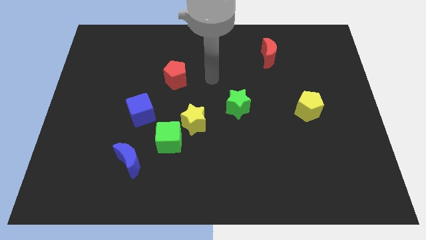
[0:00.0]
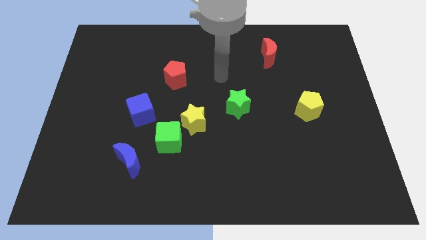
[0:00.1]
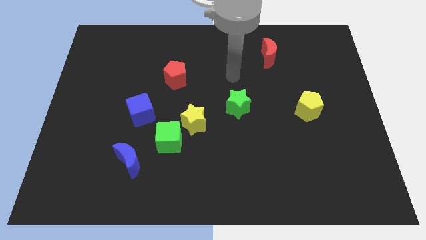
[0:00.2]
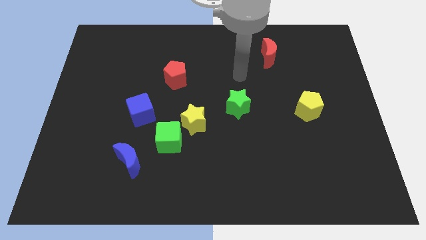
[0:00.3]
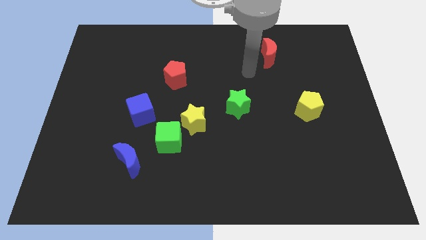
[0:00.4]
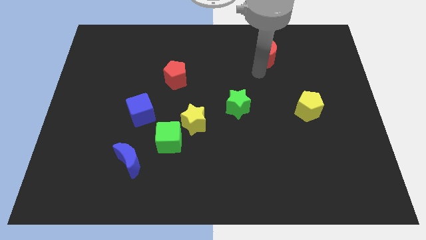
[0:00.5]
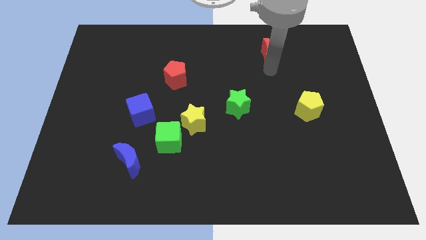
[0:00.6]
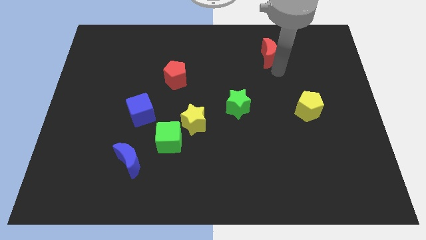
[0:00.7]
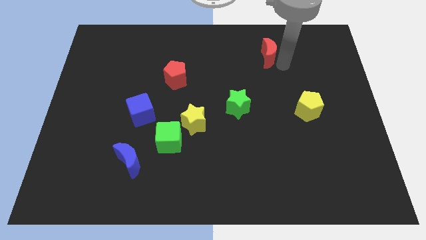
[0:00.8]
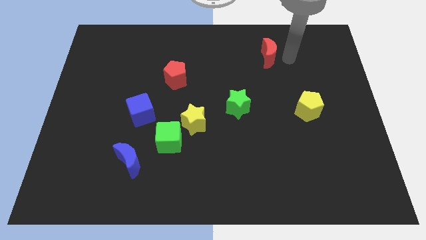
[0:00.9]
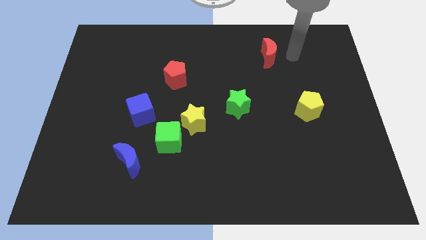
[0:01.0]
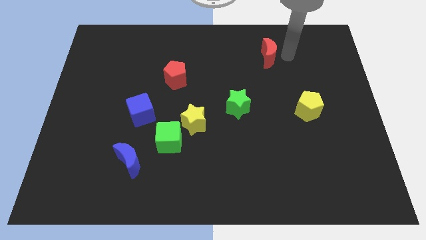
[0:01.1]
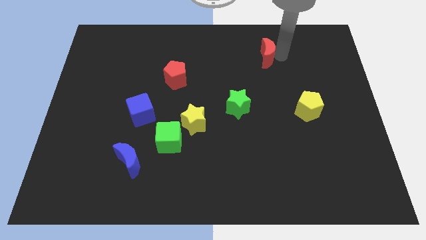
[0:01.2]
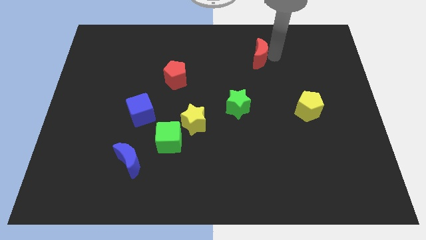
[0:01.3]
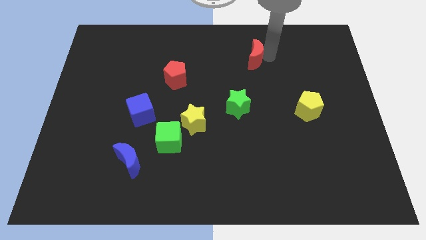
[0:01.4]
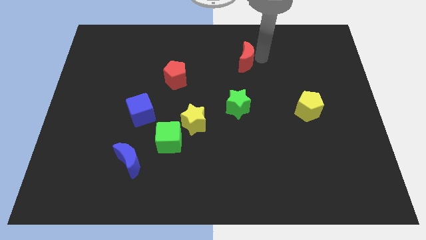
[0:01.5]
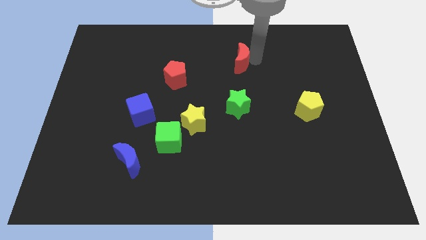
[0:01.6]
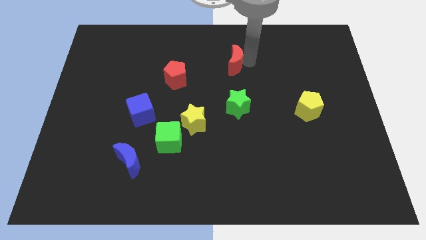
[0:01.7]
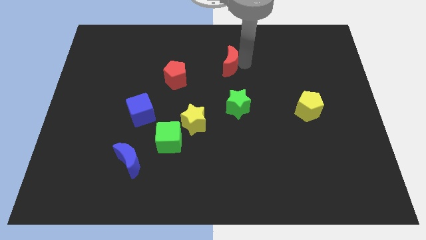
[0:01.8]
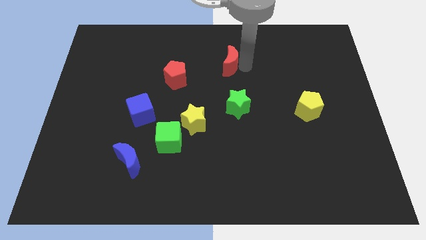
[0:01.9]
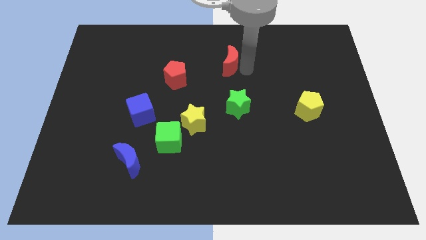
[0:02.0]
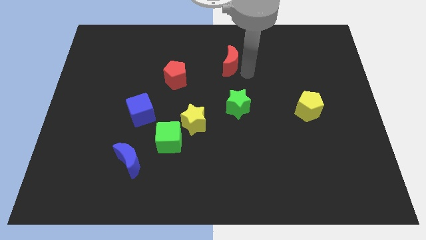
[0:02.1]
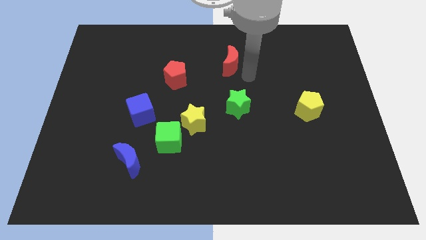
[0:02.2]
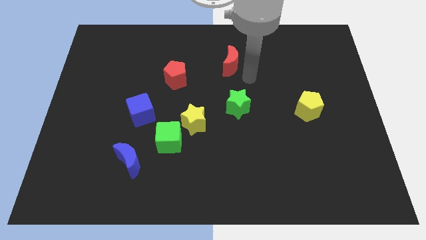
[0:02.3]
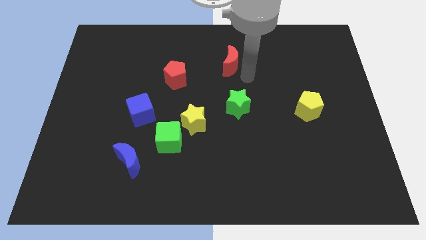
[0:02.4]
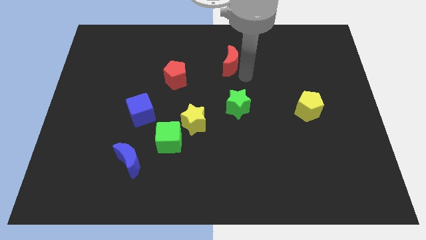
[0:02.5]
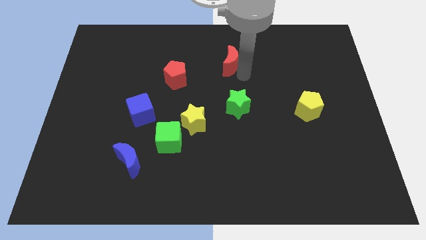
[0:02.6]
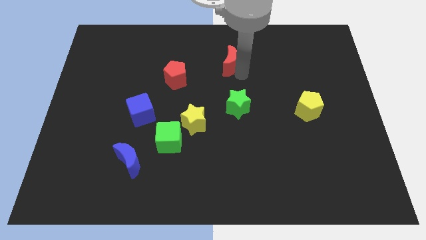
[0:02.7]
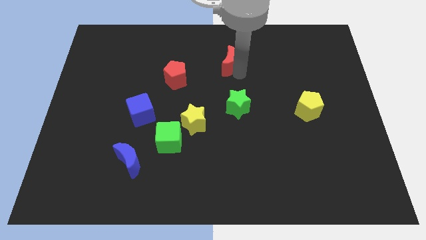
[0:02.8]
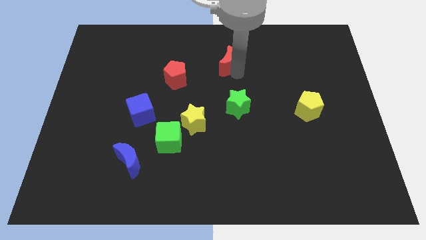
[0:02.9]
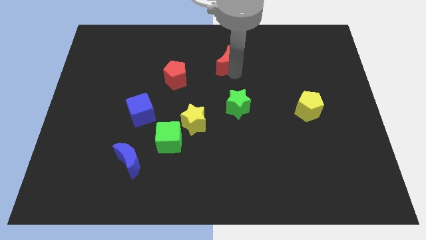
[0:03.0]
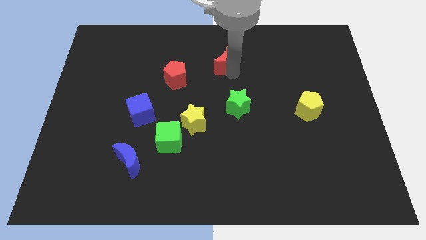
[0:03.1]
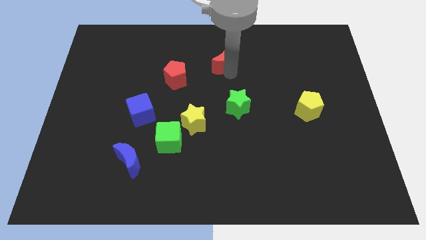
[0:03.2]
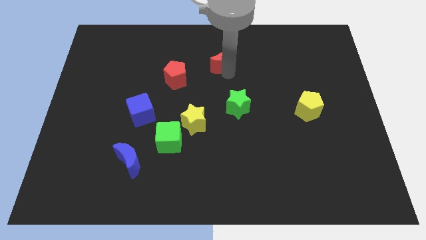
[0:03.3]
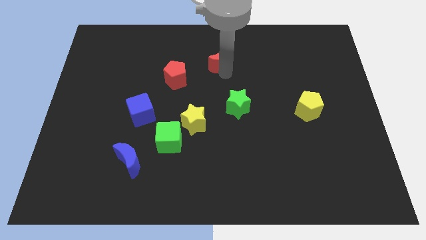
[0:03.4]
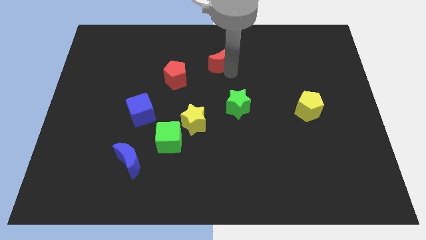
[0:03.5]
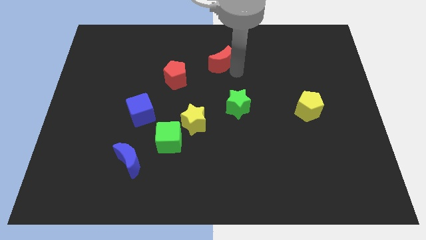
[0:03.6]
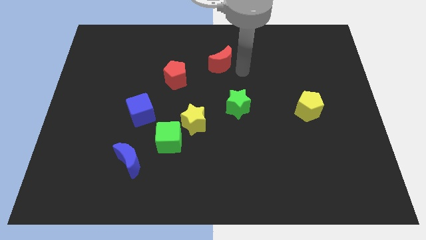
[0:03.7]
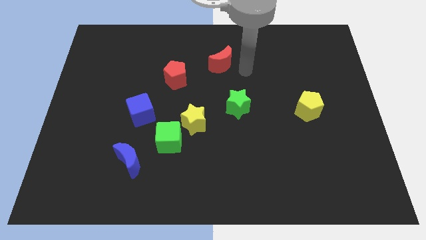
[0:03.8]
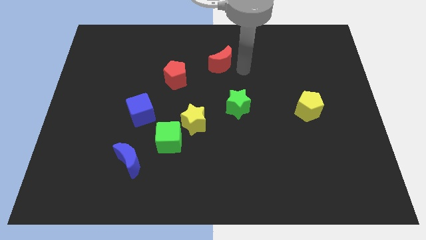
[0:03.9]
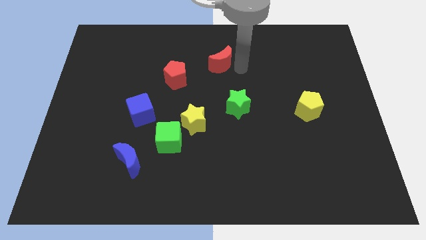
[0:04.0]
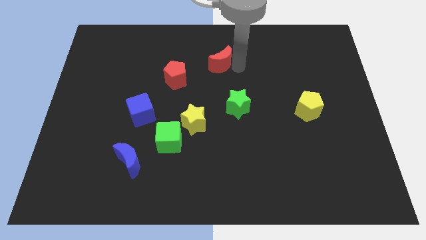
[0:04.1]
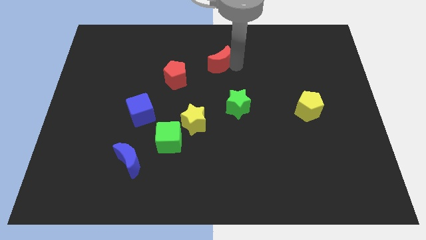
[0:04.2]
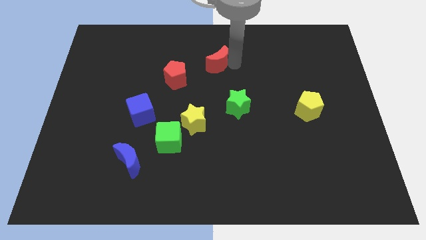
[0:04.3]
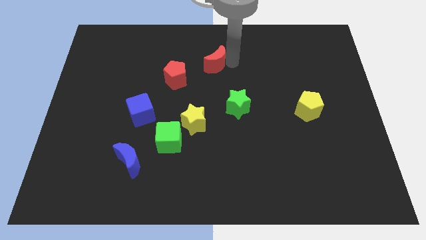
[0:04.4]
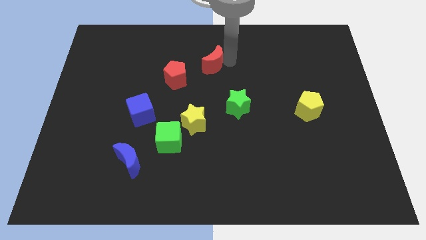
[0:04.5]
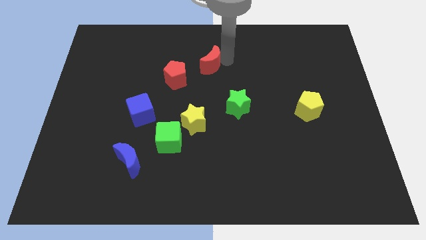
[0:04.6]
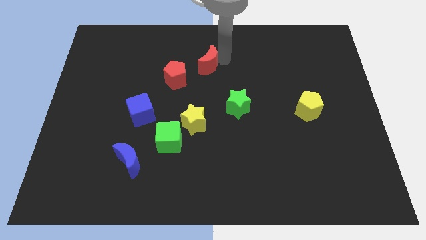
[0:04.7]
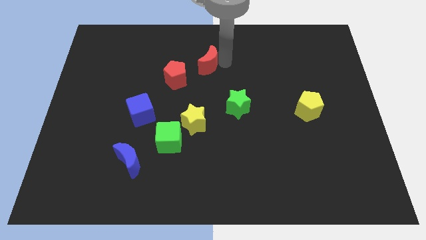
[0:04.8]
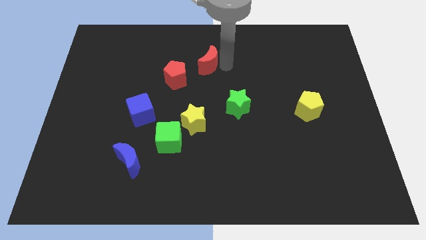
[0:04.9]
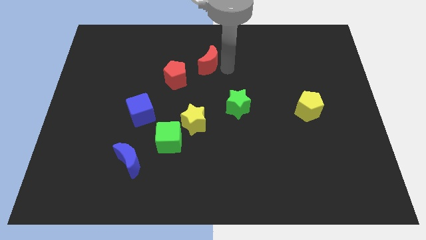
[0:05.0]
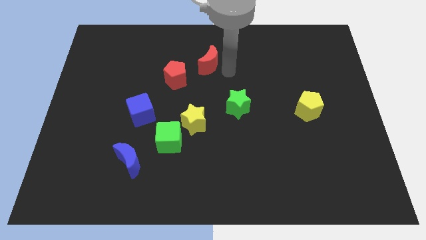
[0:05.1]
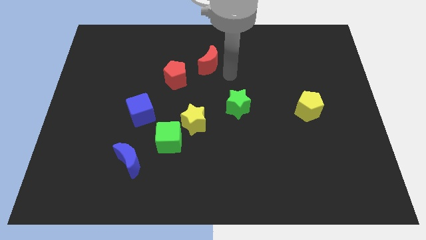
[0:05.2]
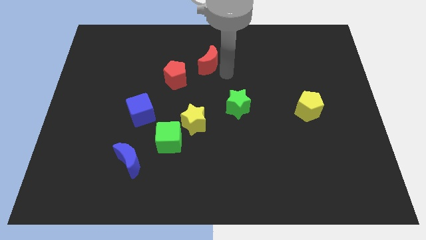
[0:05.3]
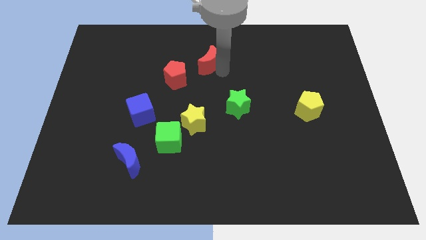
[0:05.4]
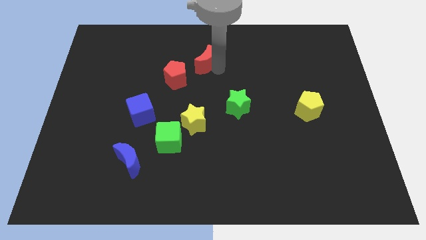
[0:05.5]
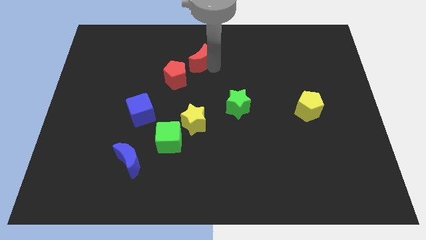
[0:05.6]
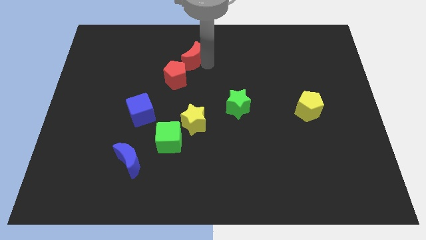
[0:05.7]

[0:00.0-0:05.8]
slide the red moon left

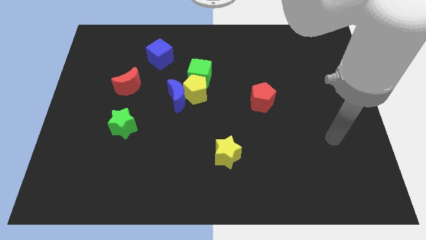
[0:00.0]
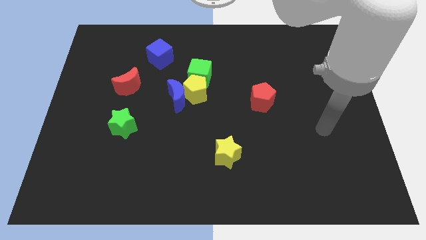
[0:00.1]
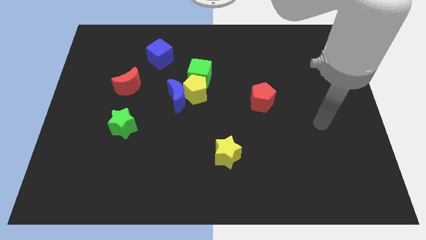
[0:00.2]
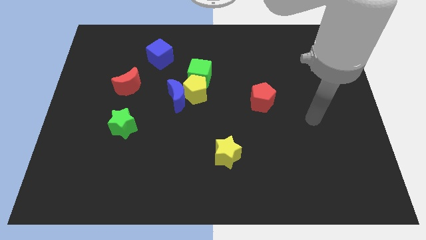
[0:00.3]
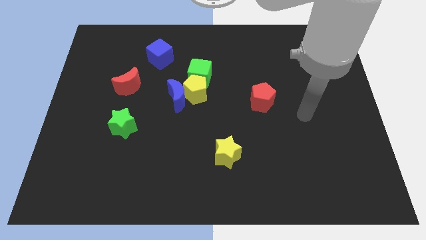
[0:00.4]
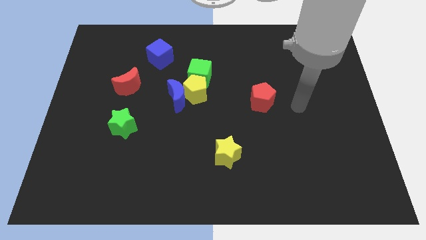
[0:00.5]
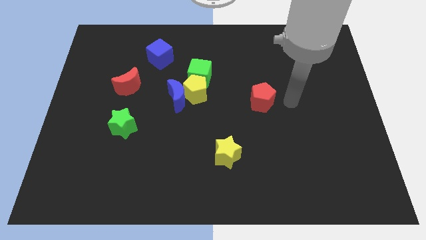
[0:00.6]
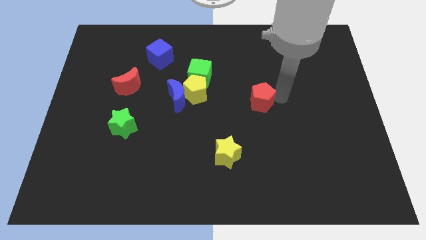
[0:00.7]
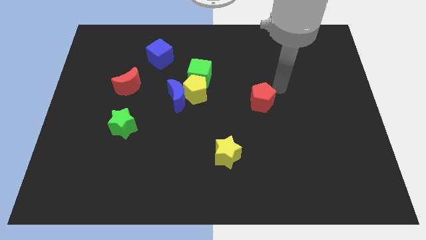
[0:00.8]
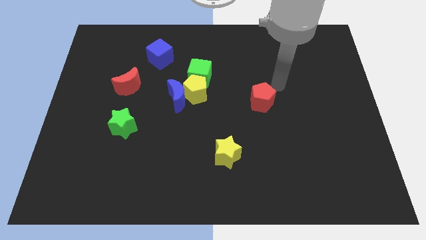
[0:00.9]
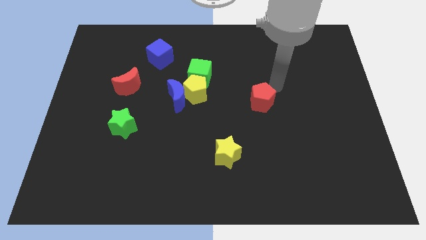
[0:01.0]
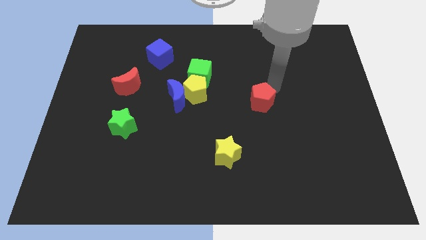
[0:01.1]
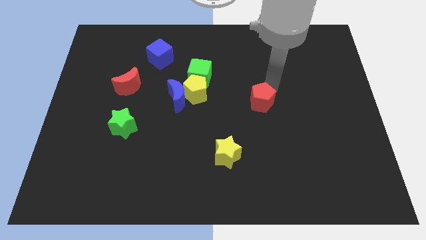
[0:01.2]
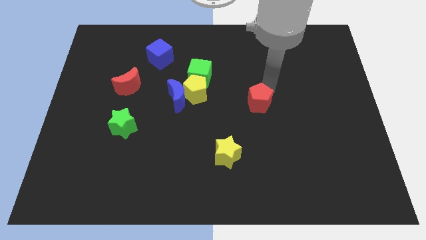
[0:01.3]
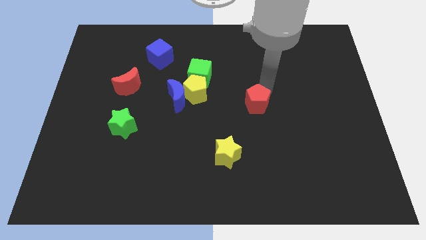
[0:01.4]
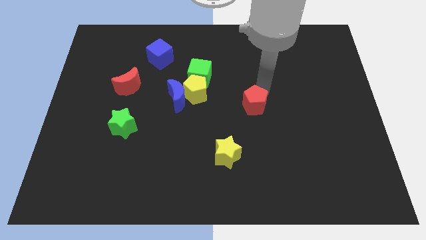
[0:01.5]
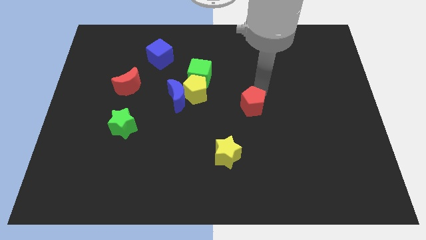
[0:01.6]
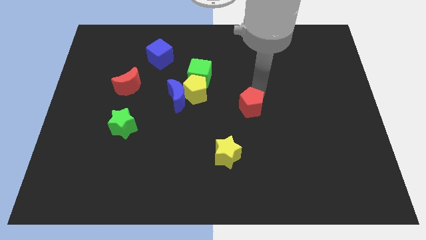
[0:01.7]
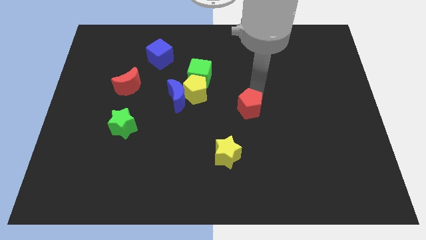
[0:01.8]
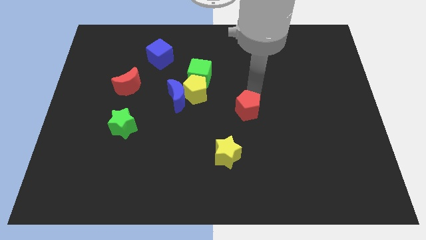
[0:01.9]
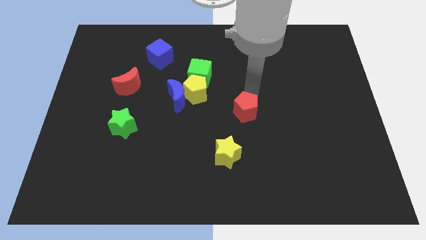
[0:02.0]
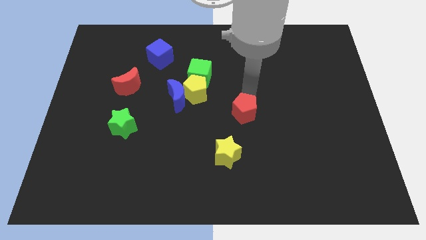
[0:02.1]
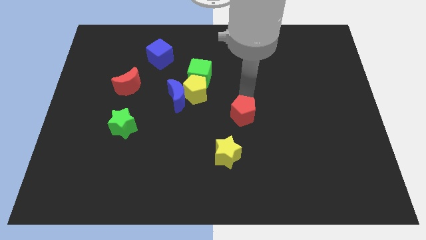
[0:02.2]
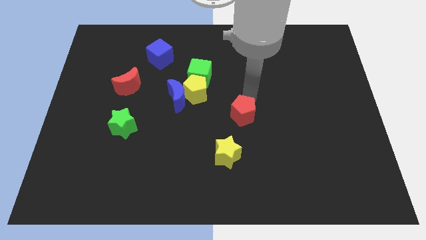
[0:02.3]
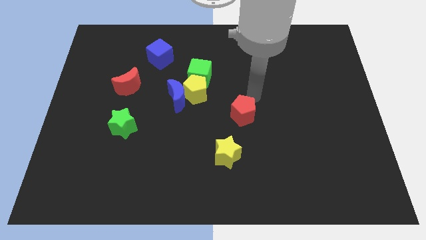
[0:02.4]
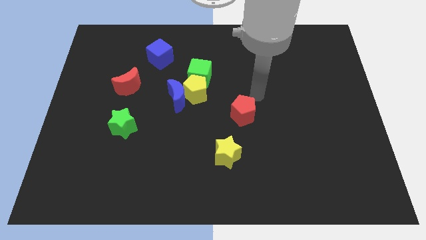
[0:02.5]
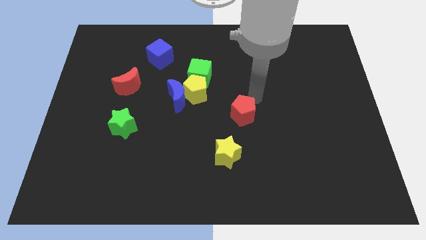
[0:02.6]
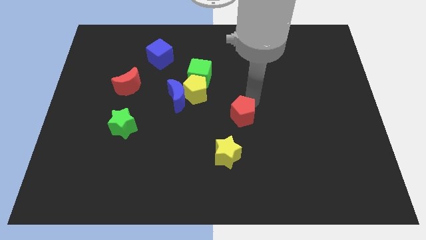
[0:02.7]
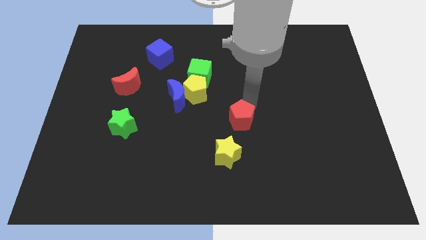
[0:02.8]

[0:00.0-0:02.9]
move the red pentagon a little bit down and then left
